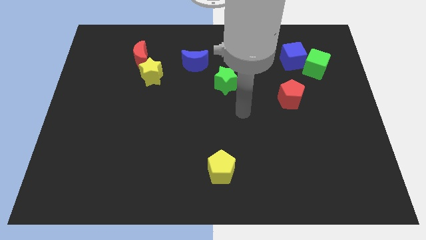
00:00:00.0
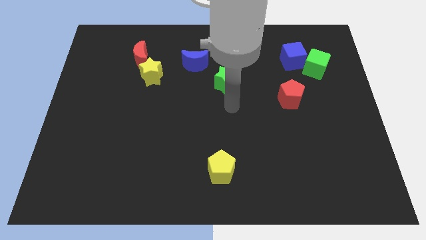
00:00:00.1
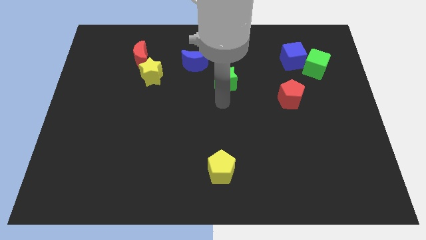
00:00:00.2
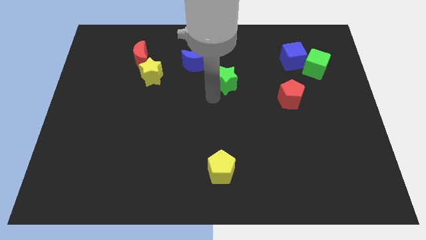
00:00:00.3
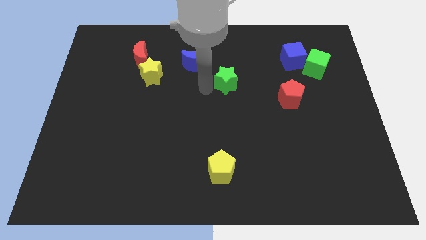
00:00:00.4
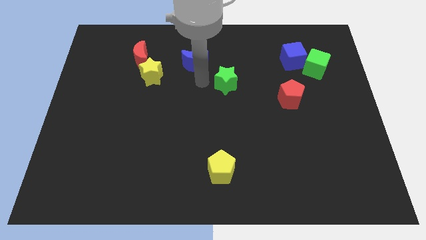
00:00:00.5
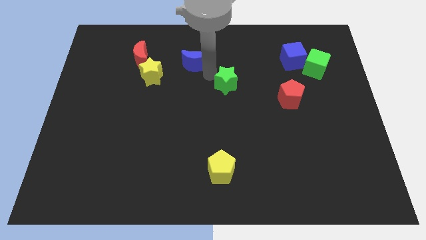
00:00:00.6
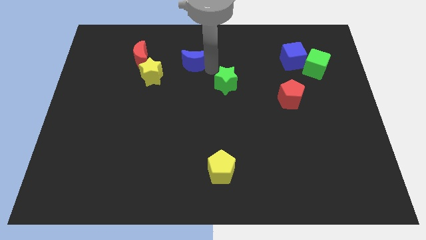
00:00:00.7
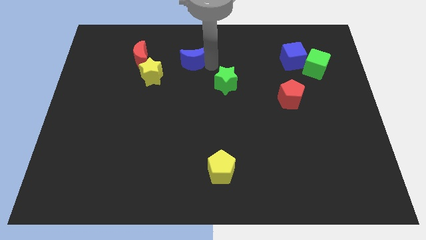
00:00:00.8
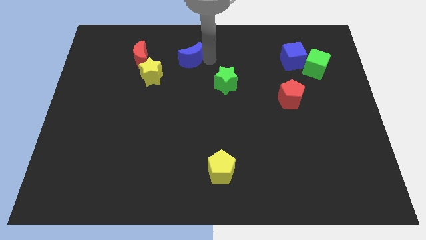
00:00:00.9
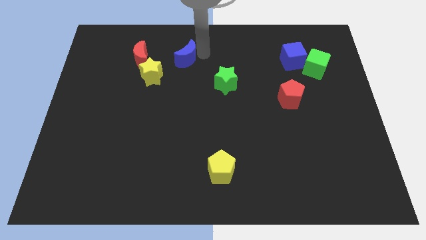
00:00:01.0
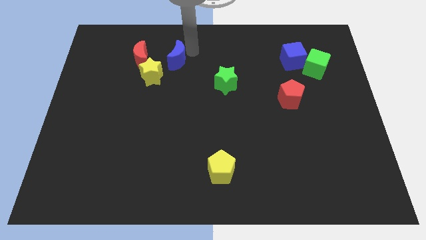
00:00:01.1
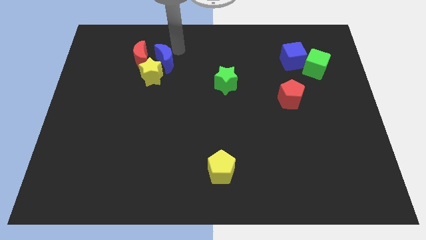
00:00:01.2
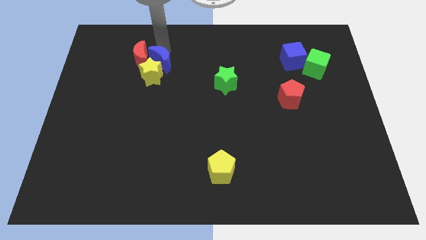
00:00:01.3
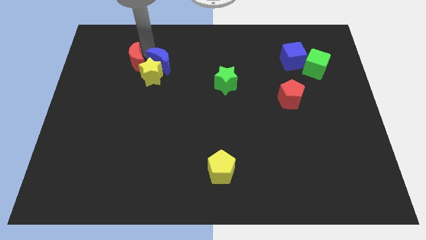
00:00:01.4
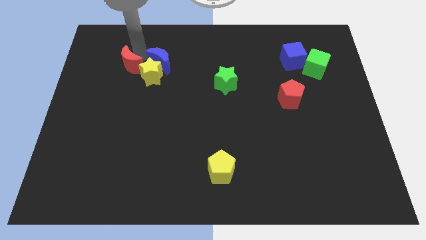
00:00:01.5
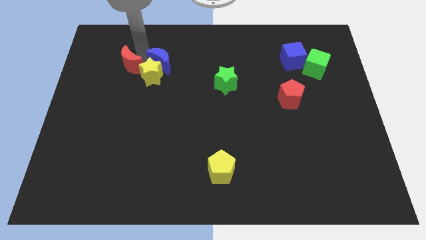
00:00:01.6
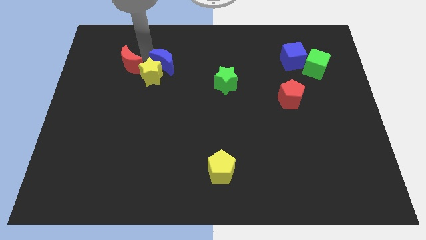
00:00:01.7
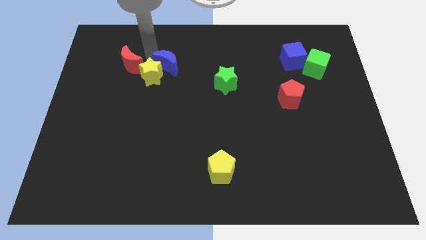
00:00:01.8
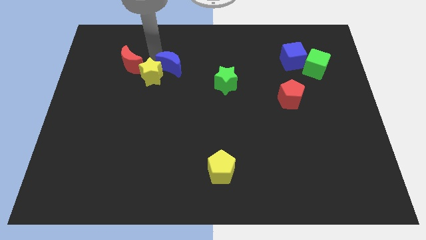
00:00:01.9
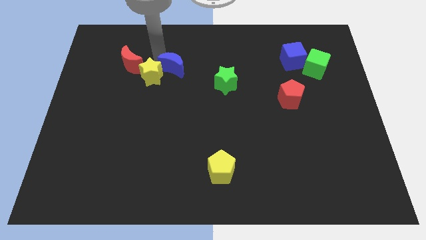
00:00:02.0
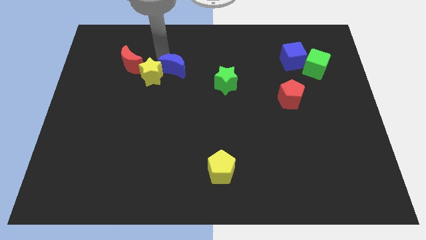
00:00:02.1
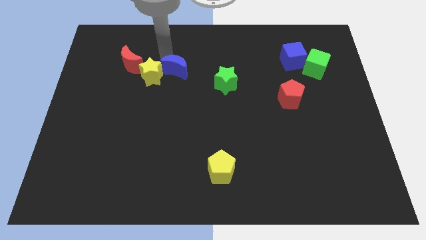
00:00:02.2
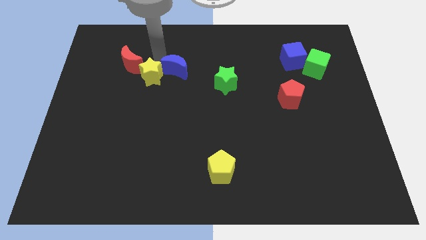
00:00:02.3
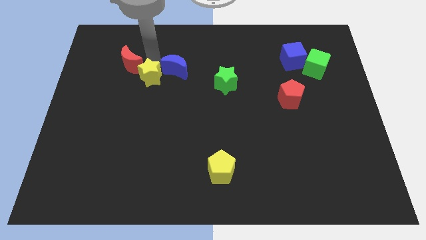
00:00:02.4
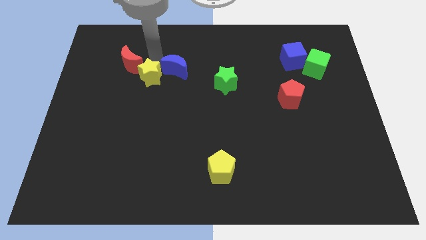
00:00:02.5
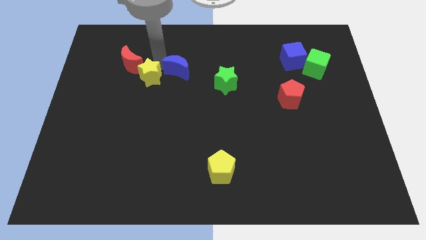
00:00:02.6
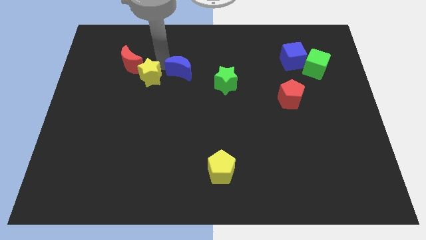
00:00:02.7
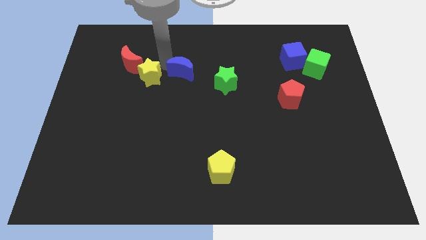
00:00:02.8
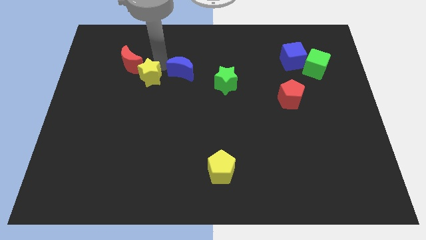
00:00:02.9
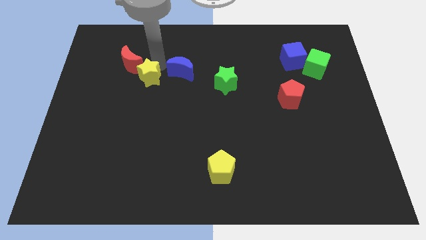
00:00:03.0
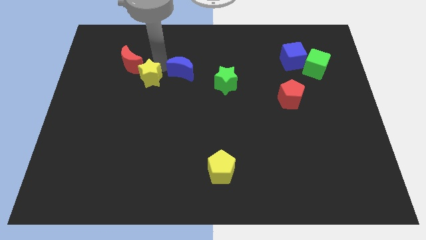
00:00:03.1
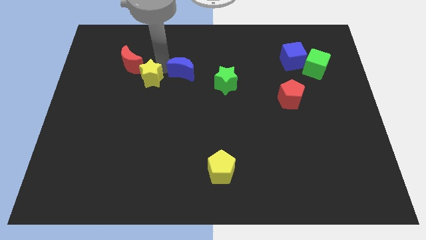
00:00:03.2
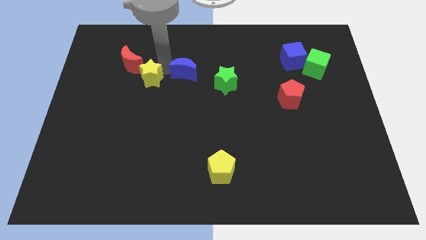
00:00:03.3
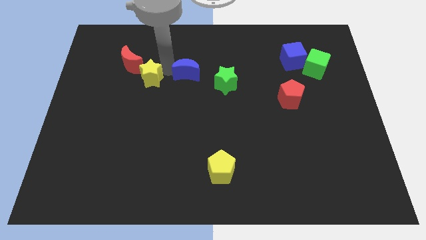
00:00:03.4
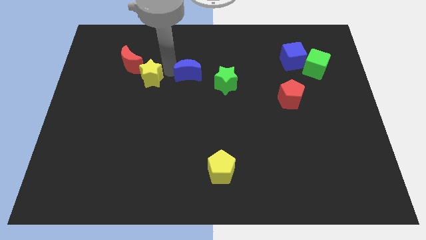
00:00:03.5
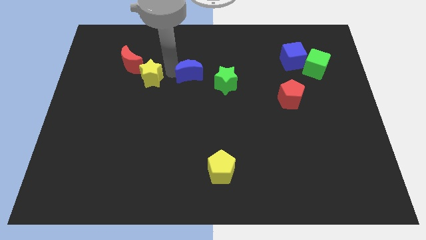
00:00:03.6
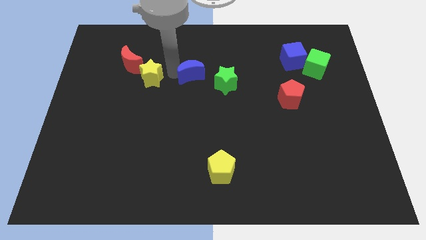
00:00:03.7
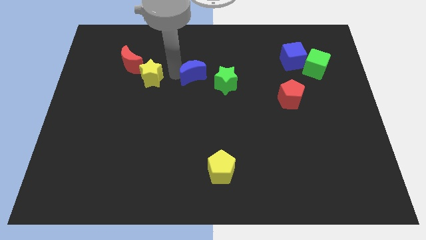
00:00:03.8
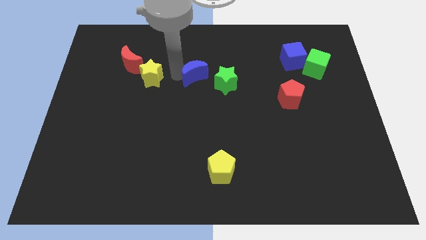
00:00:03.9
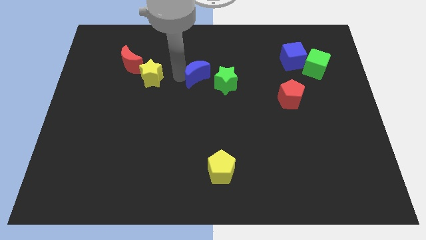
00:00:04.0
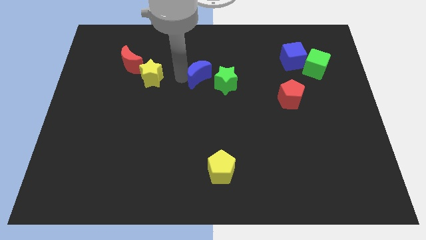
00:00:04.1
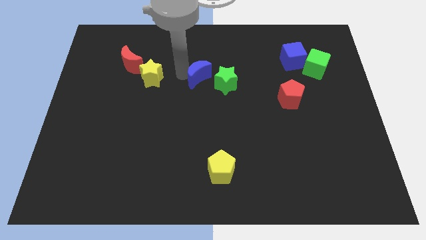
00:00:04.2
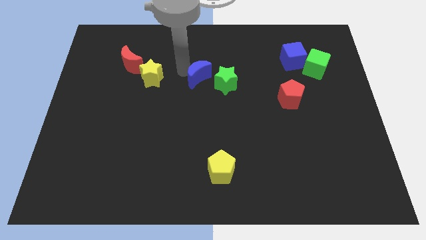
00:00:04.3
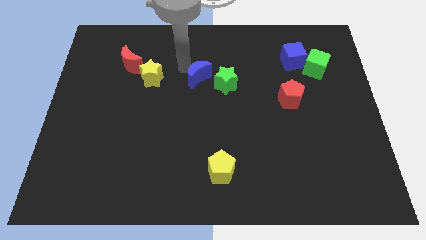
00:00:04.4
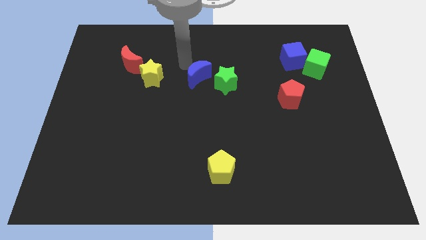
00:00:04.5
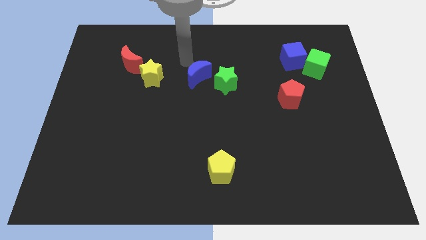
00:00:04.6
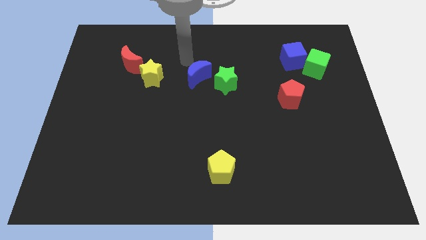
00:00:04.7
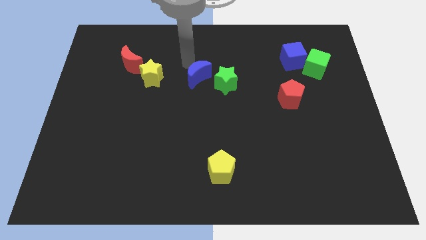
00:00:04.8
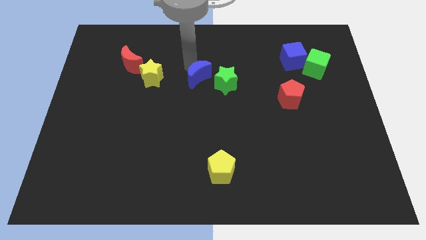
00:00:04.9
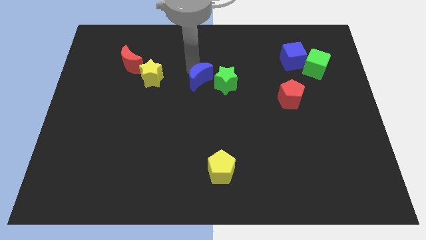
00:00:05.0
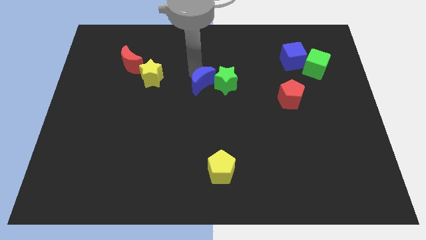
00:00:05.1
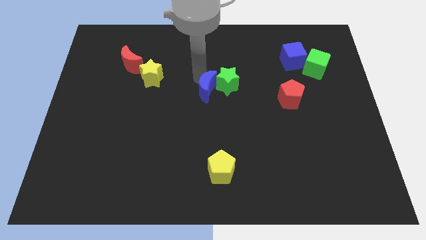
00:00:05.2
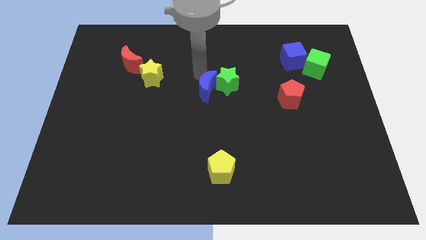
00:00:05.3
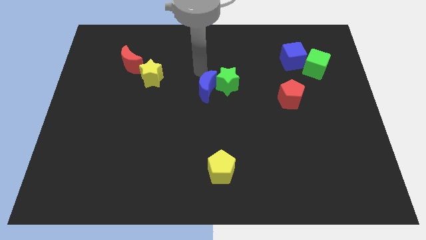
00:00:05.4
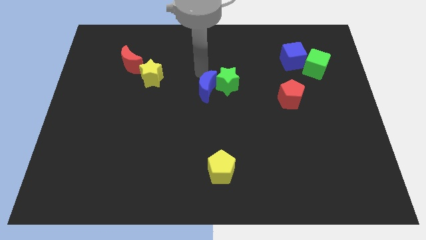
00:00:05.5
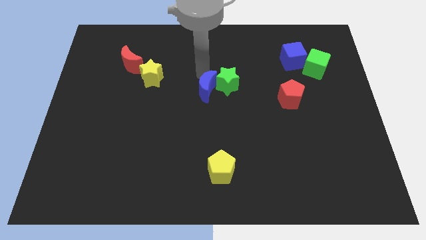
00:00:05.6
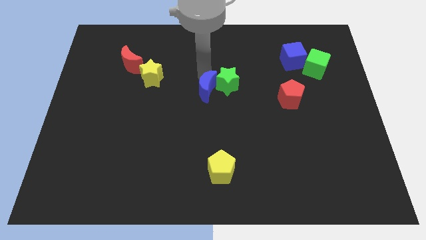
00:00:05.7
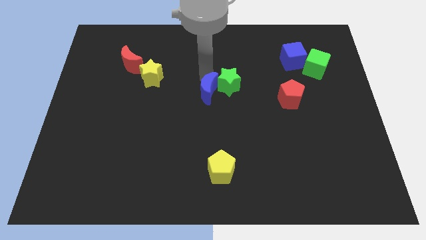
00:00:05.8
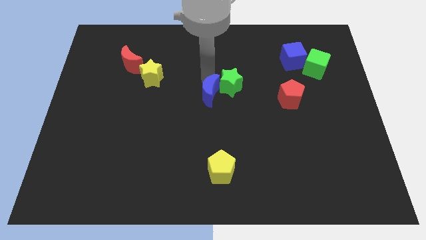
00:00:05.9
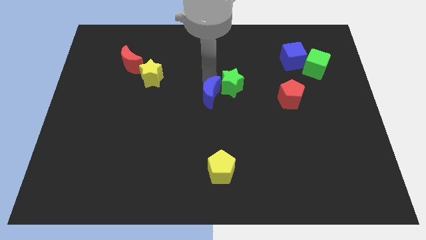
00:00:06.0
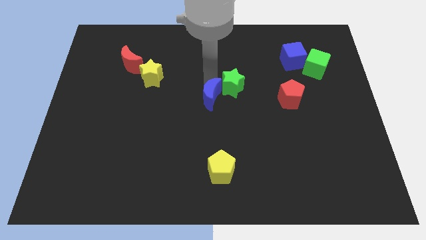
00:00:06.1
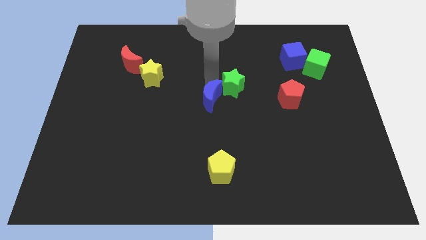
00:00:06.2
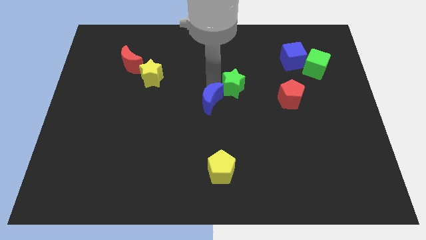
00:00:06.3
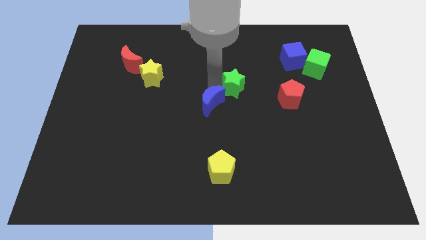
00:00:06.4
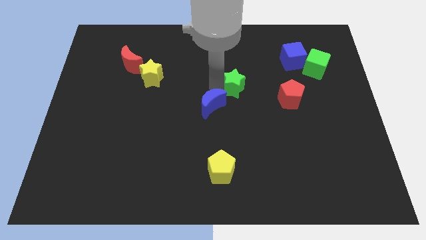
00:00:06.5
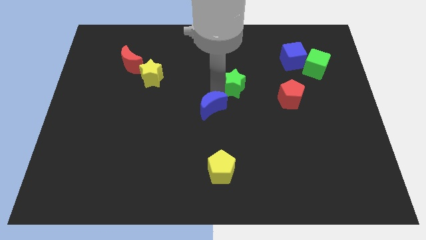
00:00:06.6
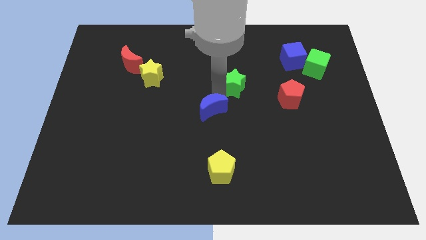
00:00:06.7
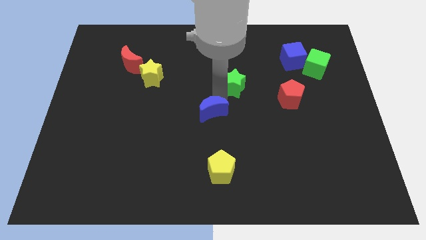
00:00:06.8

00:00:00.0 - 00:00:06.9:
slide the blue moon to the top side of the yellow pentagon

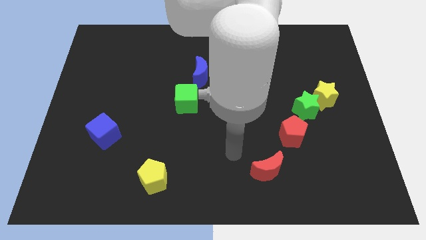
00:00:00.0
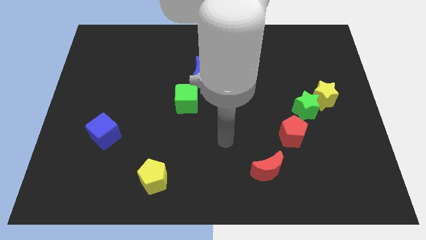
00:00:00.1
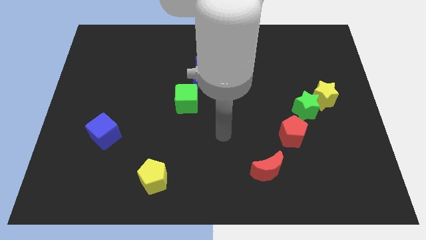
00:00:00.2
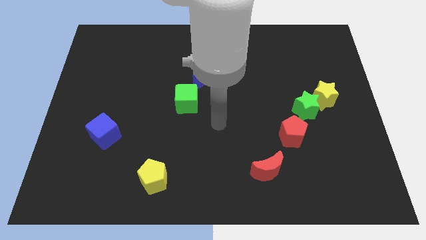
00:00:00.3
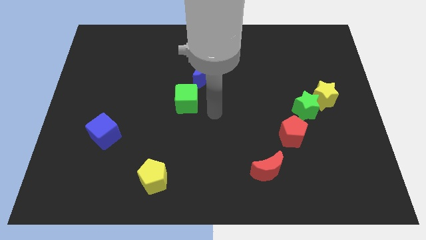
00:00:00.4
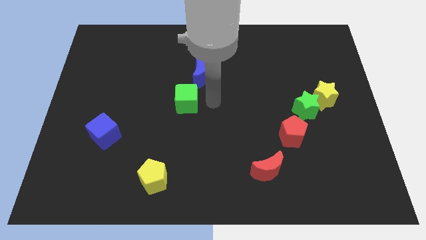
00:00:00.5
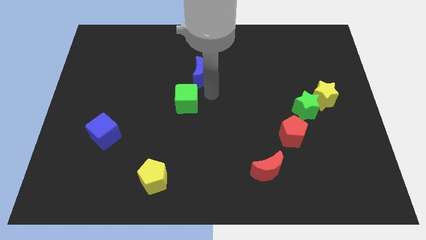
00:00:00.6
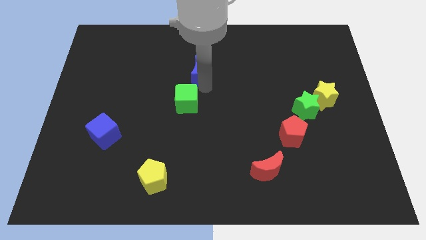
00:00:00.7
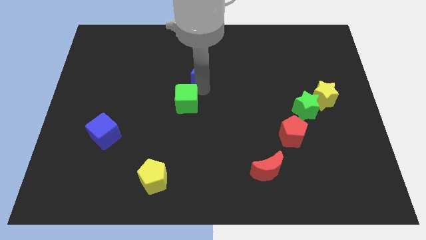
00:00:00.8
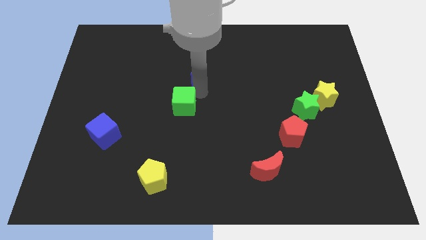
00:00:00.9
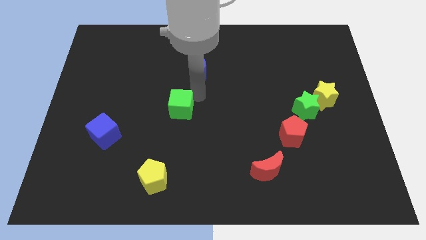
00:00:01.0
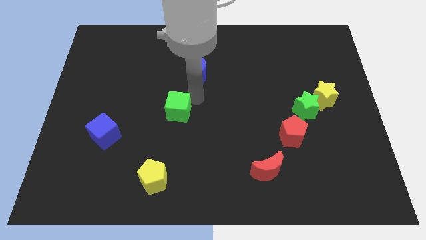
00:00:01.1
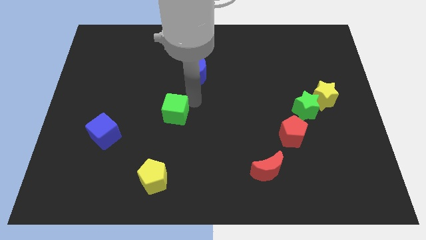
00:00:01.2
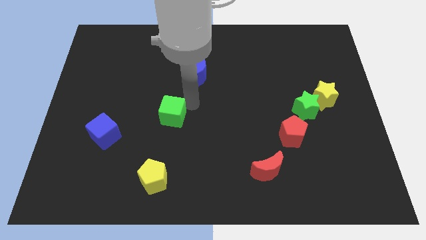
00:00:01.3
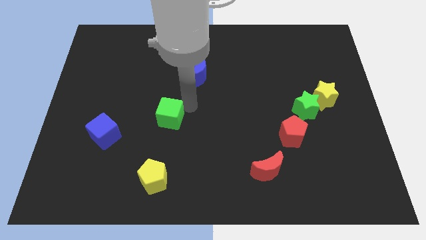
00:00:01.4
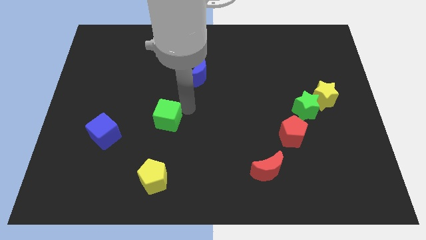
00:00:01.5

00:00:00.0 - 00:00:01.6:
put the green cube to the right of the blue cube
